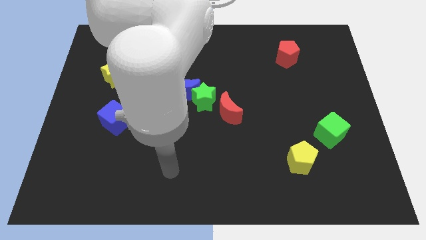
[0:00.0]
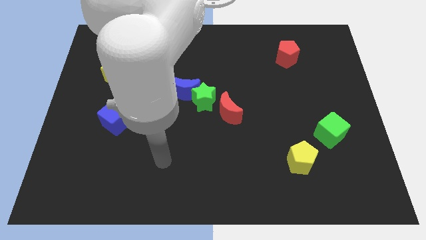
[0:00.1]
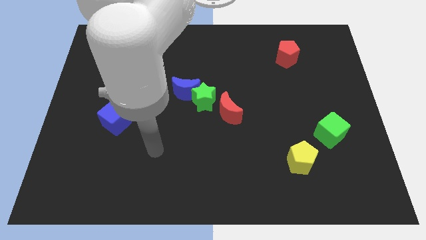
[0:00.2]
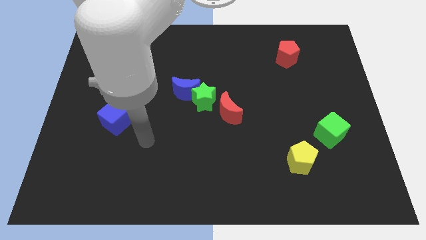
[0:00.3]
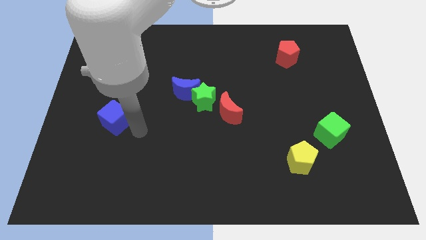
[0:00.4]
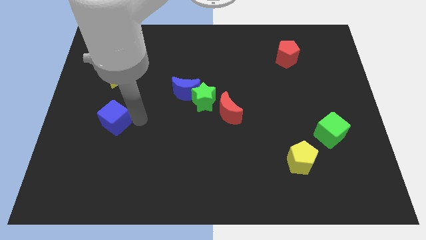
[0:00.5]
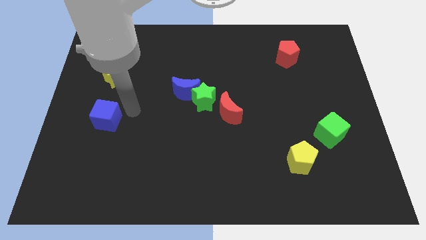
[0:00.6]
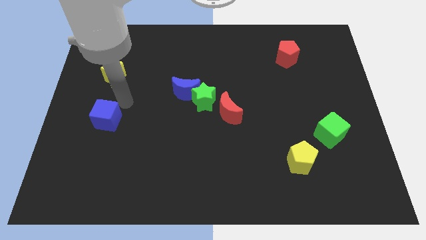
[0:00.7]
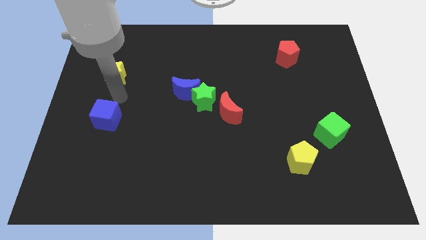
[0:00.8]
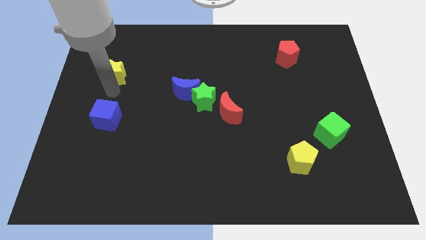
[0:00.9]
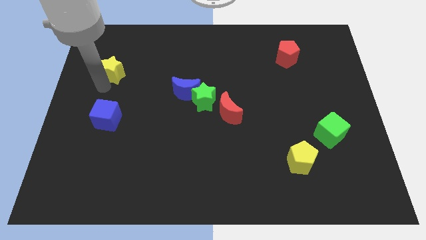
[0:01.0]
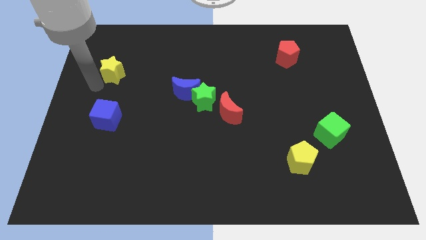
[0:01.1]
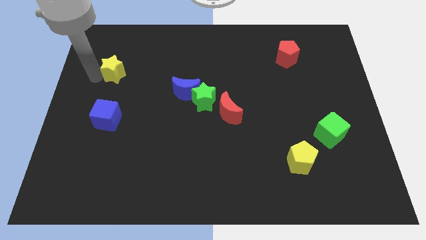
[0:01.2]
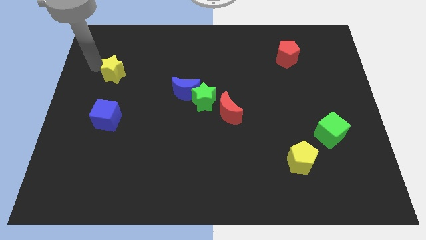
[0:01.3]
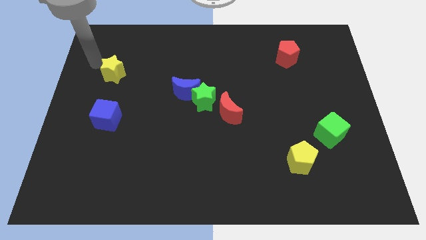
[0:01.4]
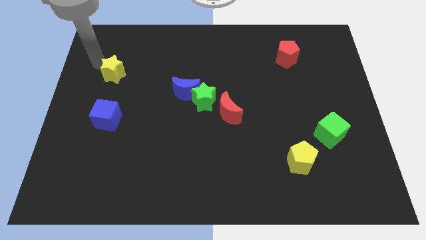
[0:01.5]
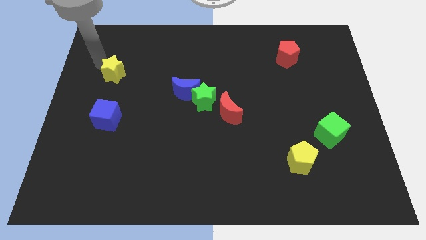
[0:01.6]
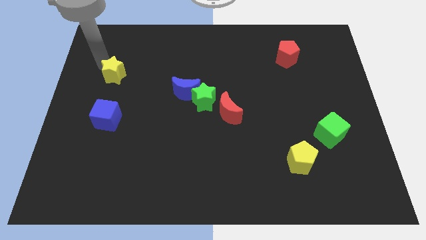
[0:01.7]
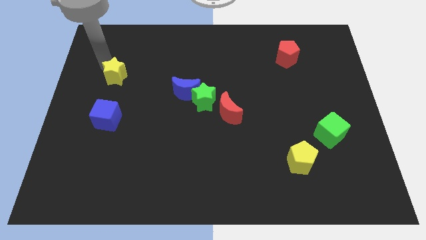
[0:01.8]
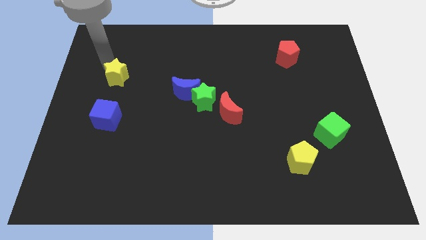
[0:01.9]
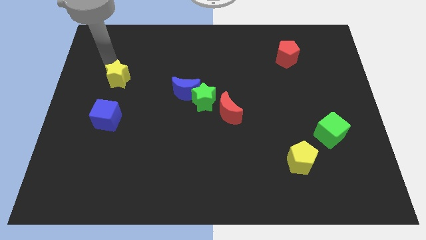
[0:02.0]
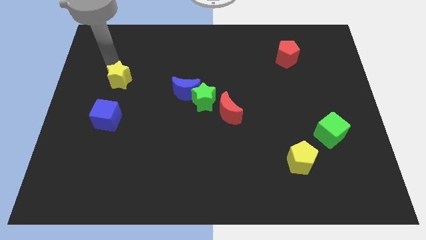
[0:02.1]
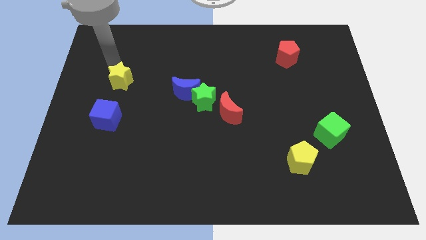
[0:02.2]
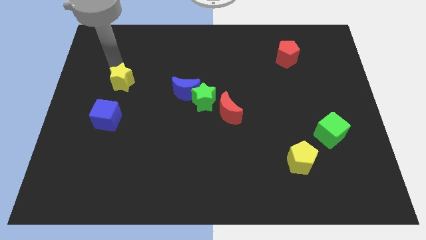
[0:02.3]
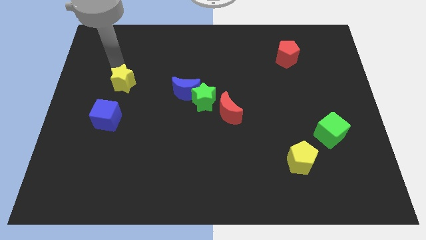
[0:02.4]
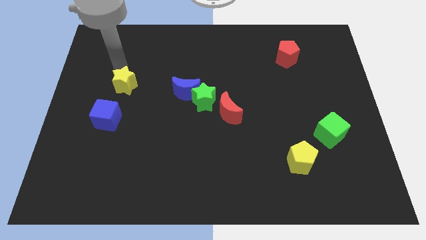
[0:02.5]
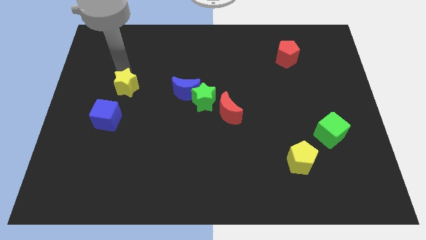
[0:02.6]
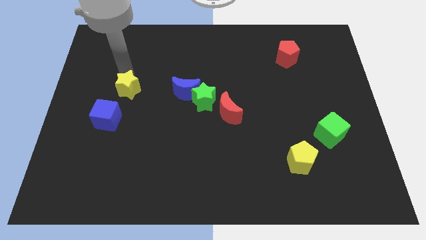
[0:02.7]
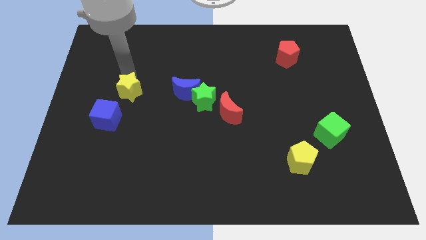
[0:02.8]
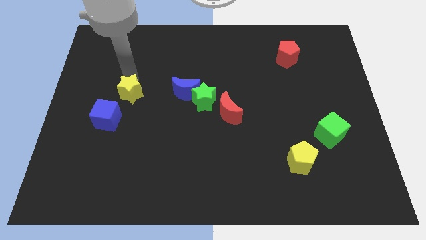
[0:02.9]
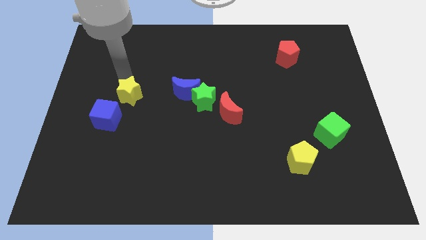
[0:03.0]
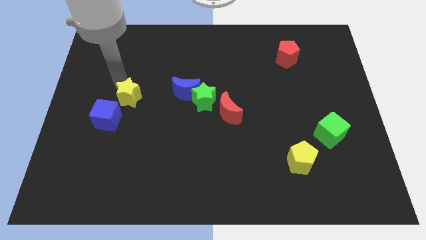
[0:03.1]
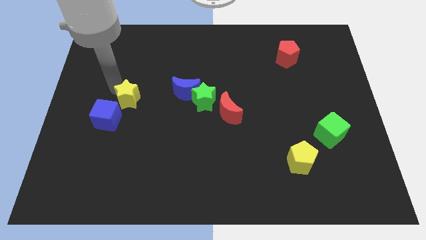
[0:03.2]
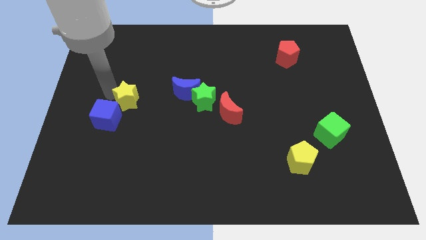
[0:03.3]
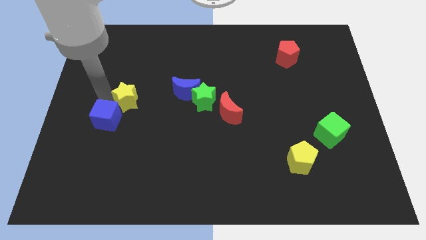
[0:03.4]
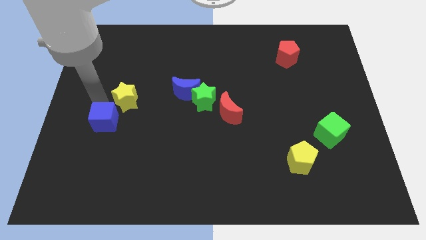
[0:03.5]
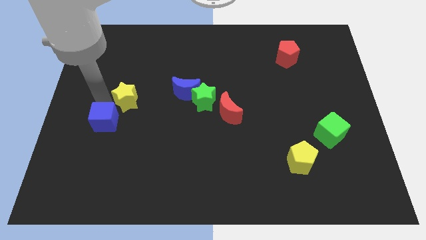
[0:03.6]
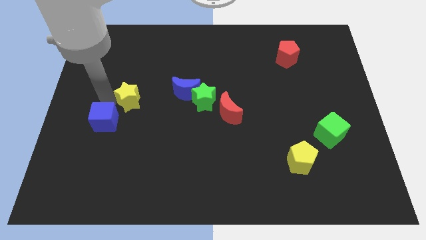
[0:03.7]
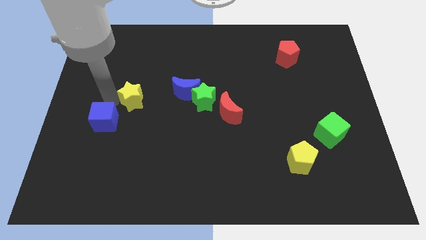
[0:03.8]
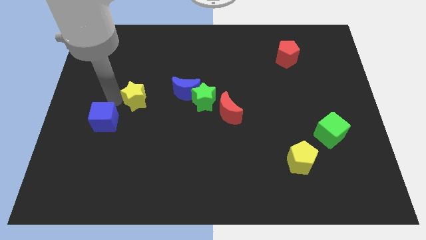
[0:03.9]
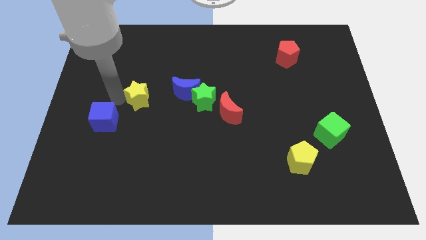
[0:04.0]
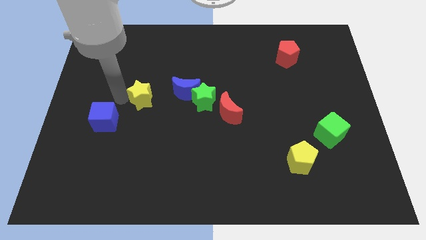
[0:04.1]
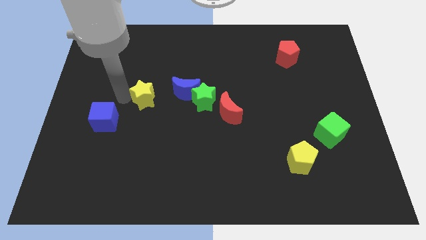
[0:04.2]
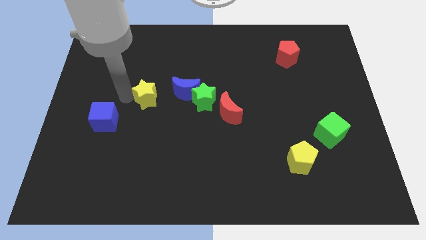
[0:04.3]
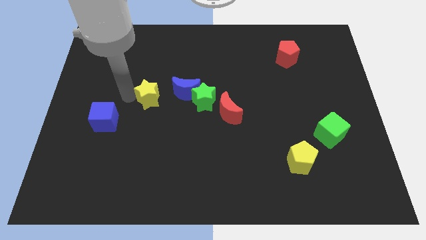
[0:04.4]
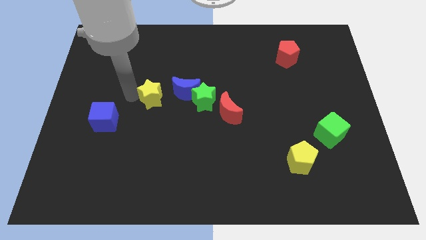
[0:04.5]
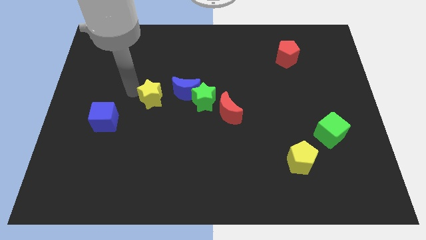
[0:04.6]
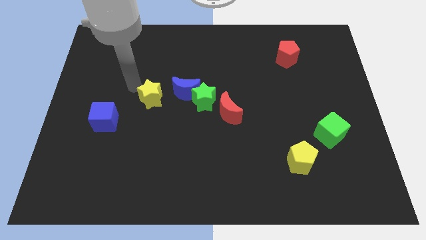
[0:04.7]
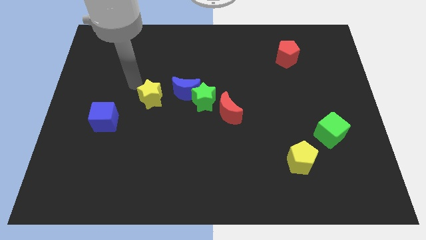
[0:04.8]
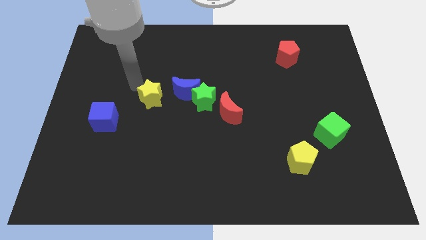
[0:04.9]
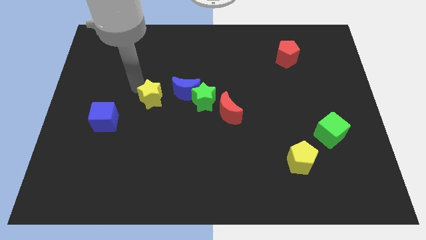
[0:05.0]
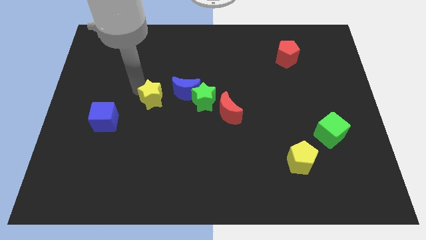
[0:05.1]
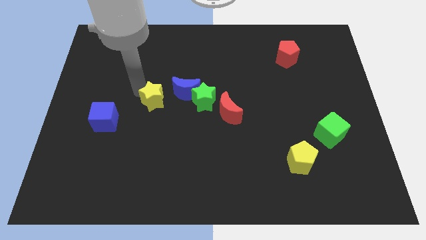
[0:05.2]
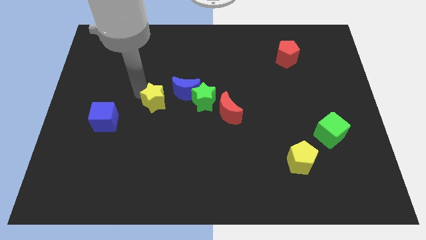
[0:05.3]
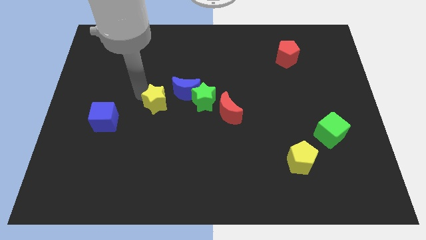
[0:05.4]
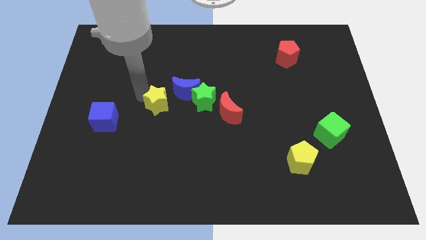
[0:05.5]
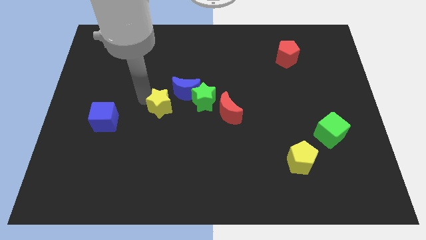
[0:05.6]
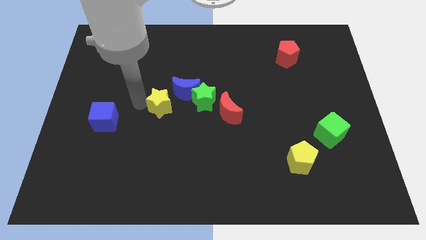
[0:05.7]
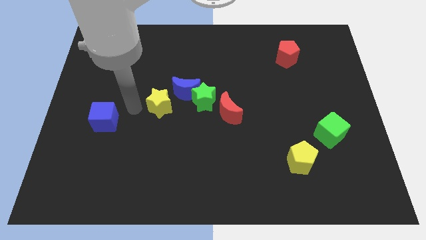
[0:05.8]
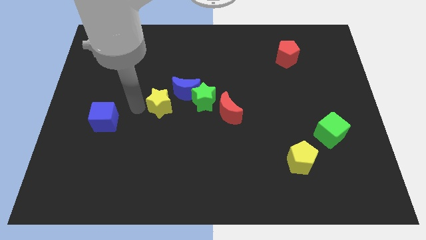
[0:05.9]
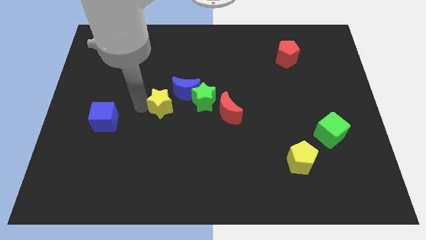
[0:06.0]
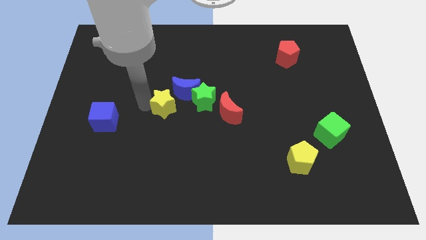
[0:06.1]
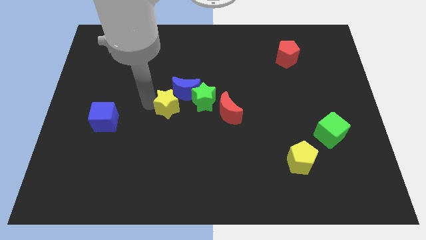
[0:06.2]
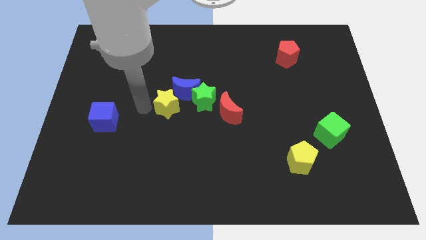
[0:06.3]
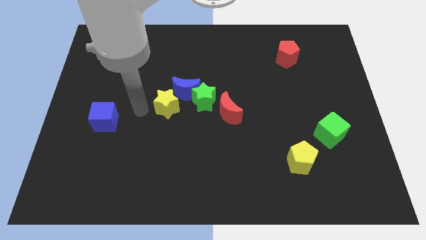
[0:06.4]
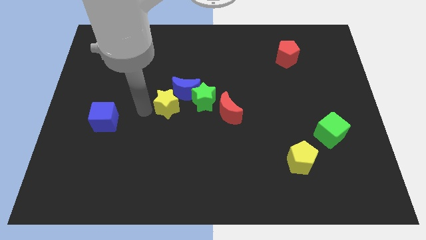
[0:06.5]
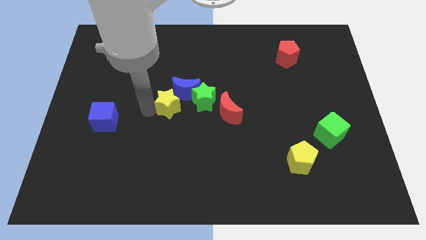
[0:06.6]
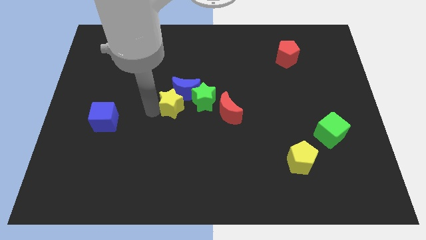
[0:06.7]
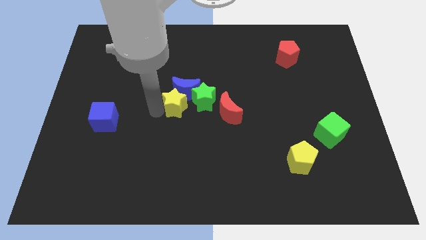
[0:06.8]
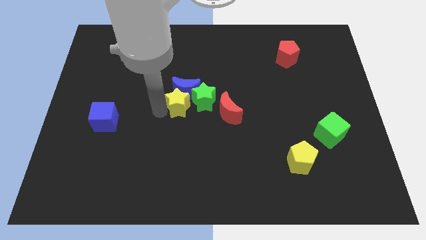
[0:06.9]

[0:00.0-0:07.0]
slide the yellow star to the green star
